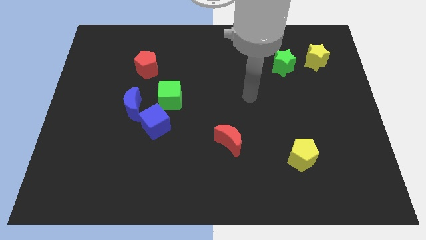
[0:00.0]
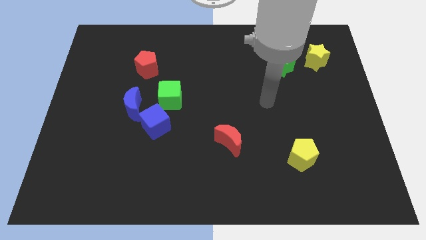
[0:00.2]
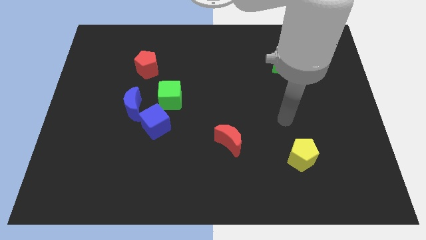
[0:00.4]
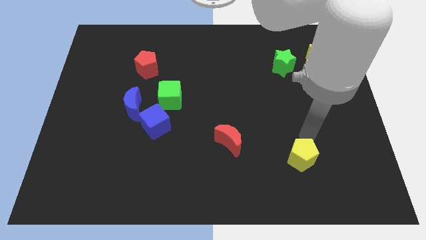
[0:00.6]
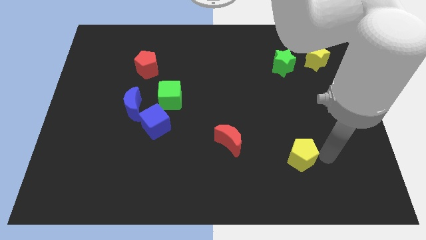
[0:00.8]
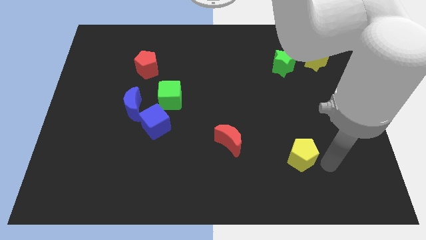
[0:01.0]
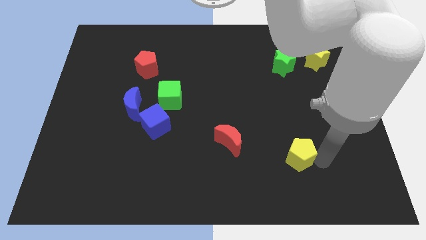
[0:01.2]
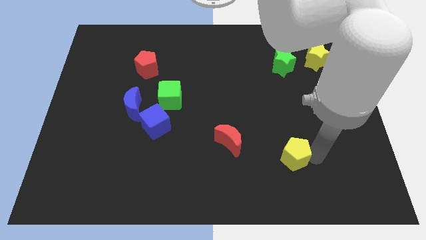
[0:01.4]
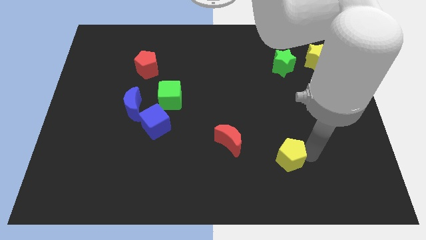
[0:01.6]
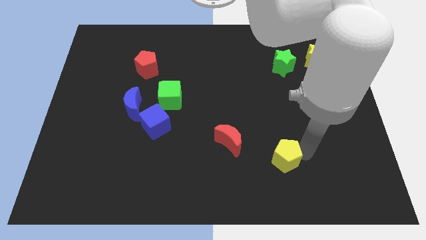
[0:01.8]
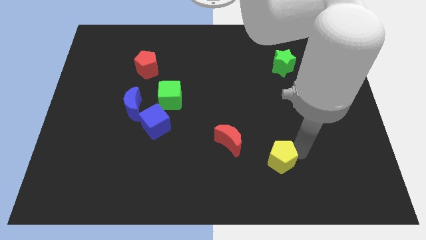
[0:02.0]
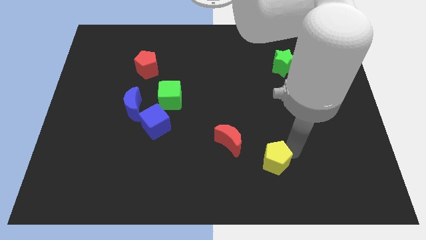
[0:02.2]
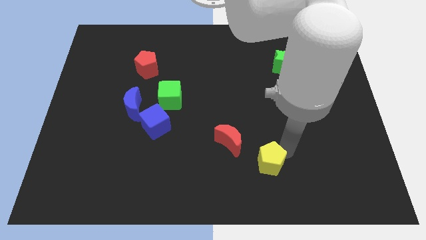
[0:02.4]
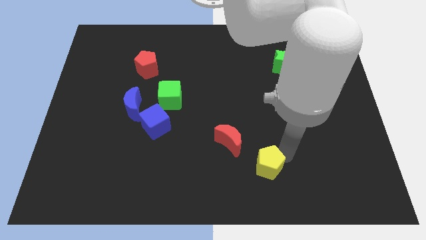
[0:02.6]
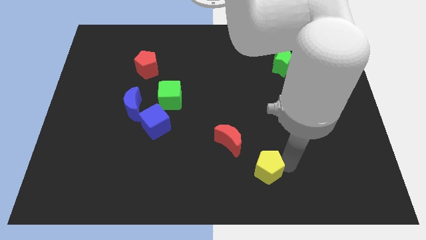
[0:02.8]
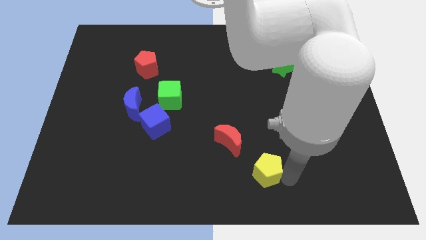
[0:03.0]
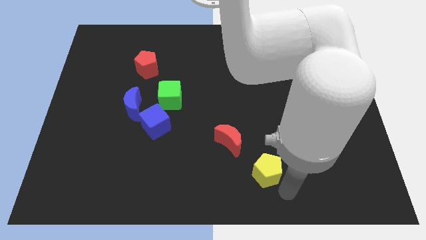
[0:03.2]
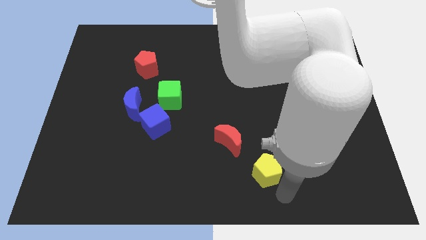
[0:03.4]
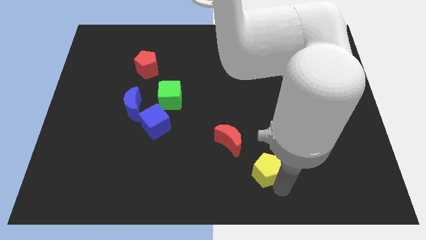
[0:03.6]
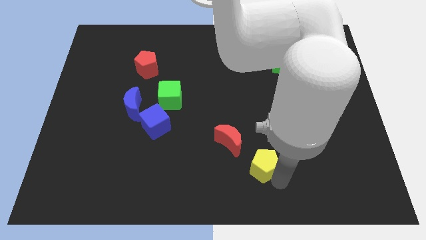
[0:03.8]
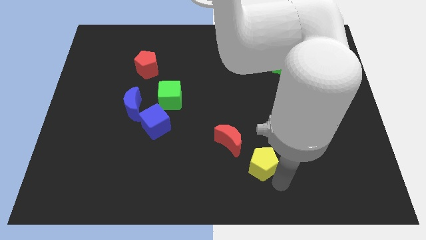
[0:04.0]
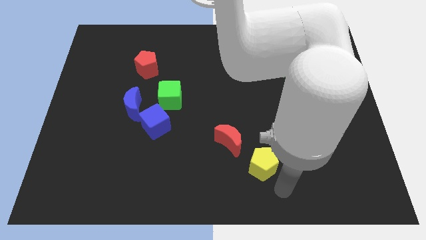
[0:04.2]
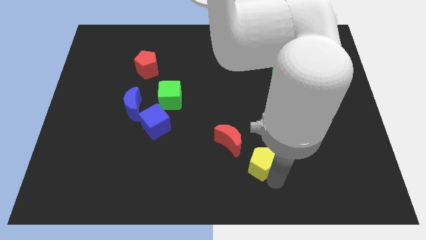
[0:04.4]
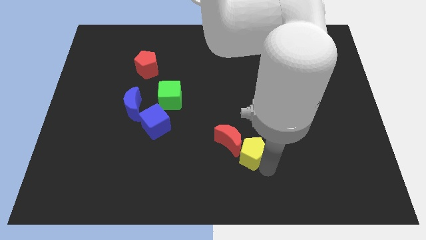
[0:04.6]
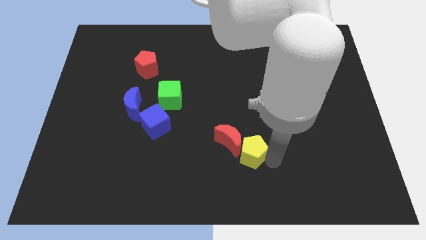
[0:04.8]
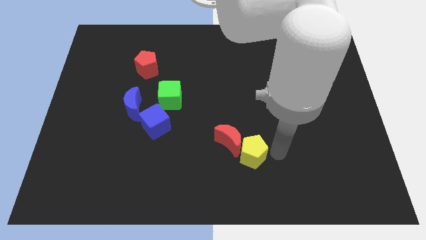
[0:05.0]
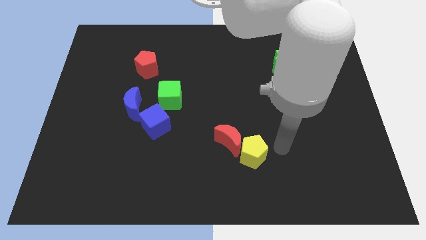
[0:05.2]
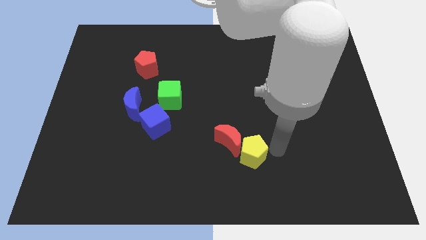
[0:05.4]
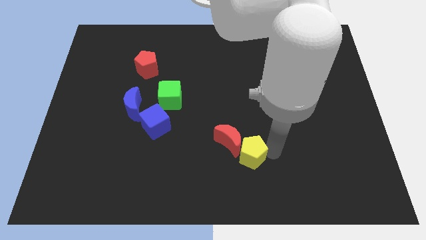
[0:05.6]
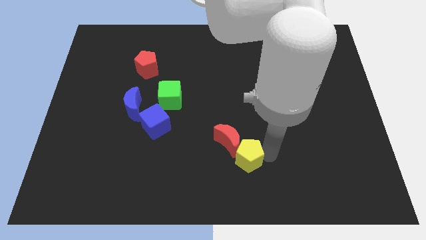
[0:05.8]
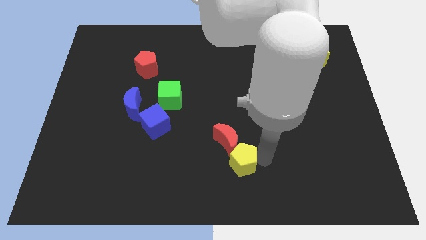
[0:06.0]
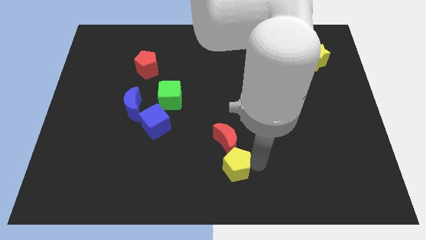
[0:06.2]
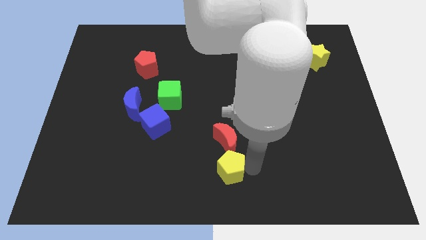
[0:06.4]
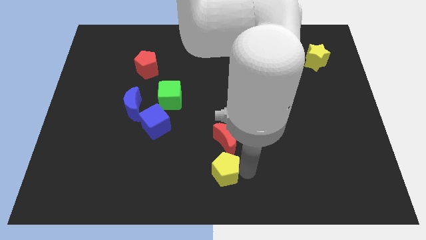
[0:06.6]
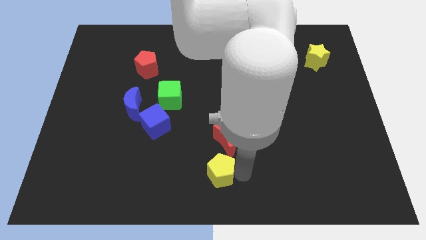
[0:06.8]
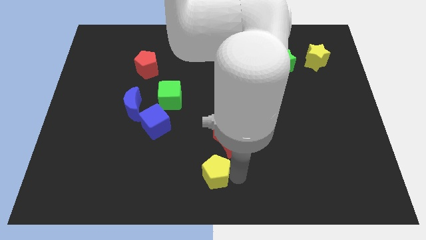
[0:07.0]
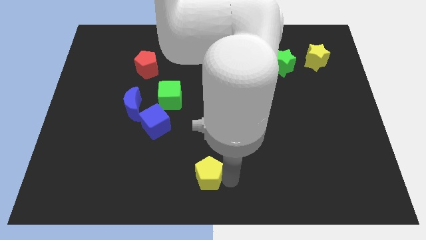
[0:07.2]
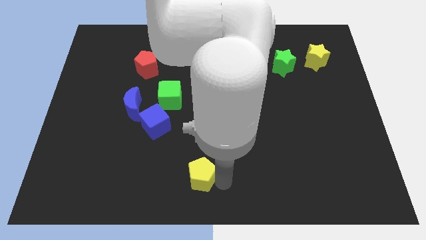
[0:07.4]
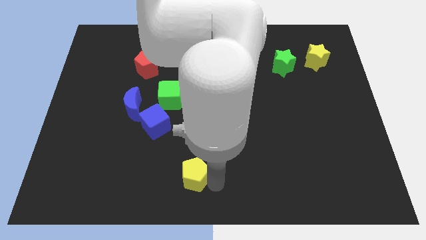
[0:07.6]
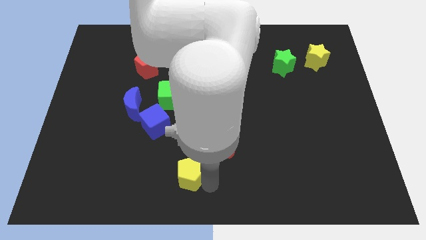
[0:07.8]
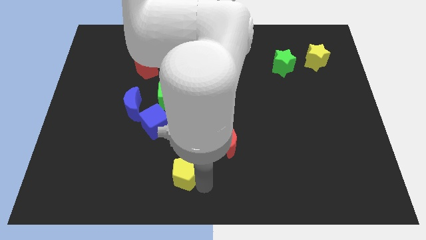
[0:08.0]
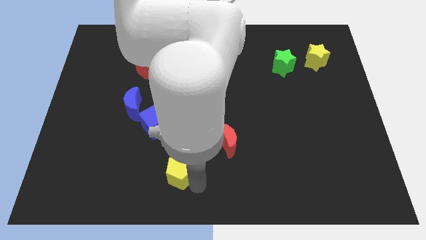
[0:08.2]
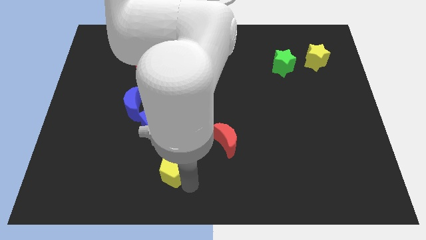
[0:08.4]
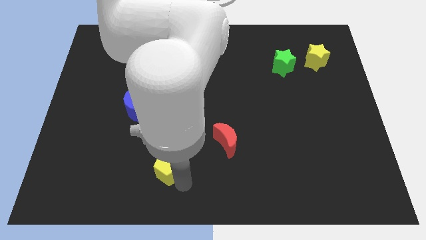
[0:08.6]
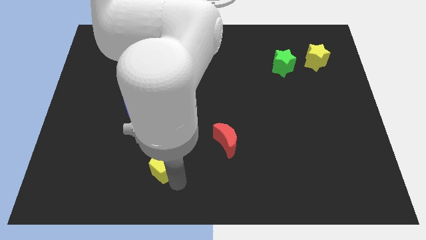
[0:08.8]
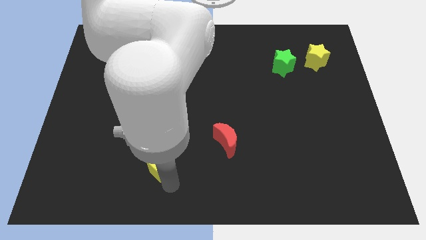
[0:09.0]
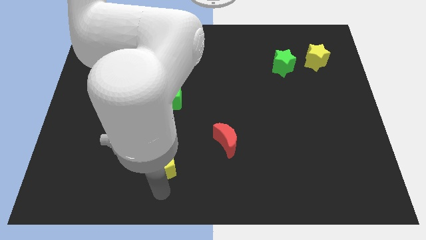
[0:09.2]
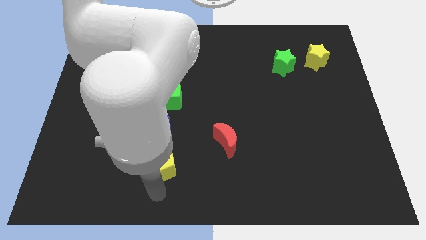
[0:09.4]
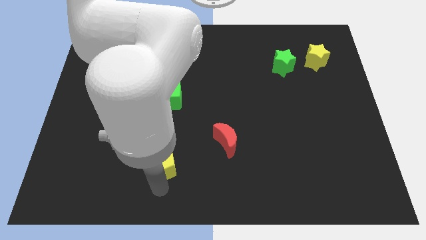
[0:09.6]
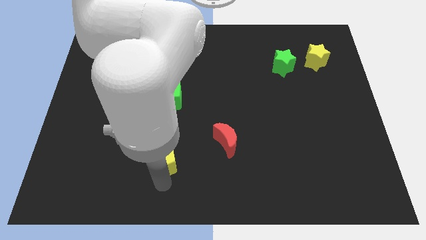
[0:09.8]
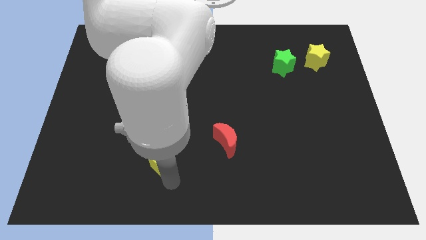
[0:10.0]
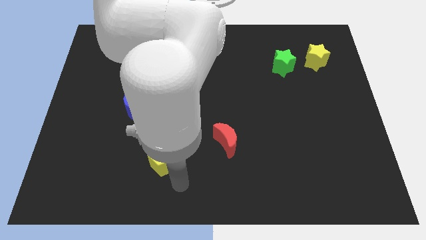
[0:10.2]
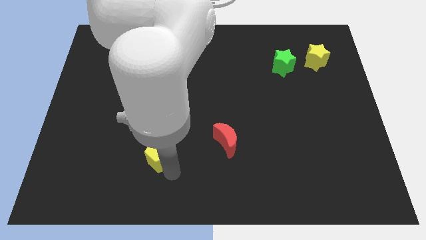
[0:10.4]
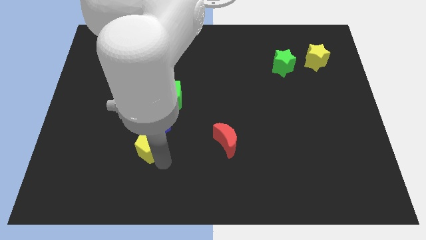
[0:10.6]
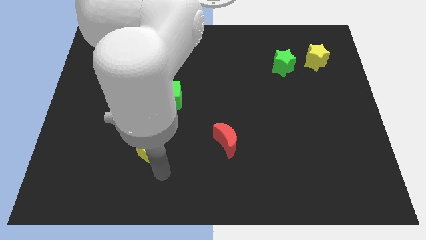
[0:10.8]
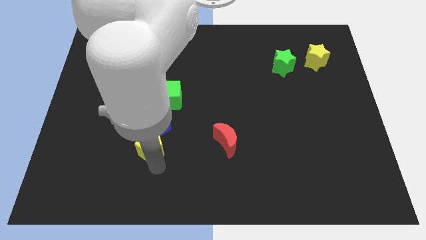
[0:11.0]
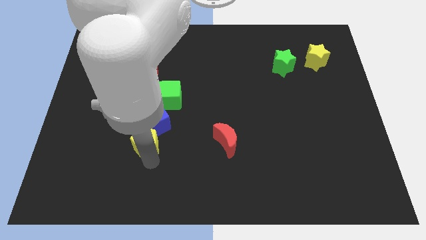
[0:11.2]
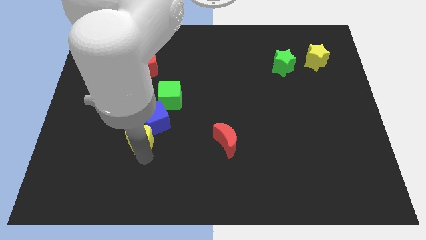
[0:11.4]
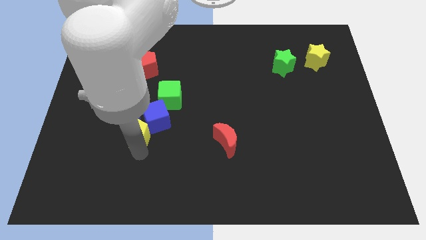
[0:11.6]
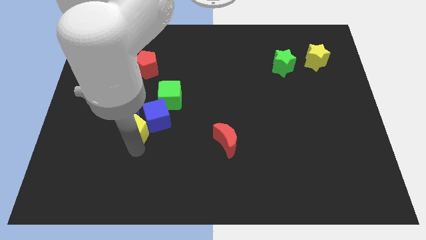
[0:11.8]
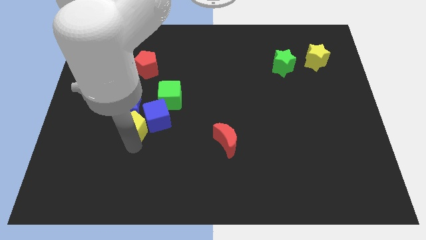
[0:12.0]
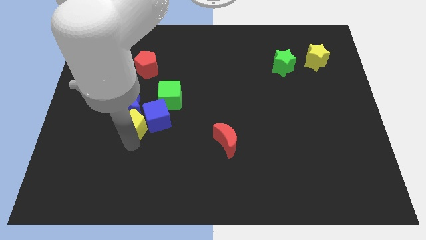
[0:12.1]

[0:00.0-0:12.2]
slide the yellow pentagon next to the blue moon

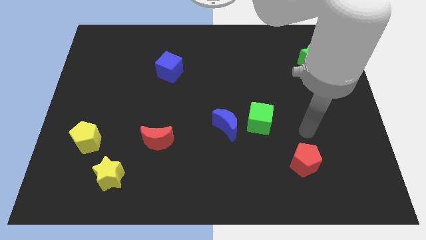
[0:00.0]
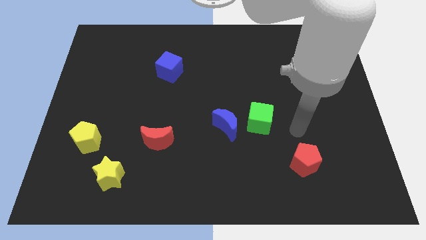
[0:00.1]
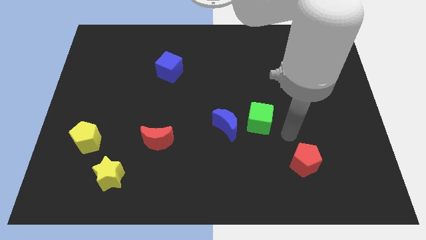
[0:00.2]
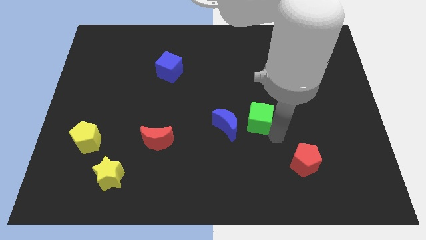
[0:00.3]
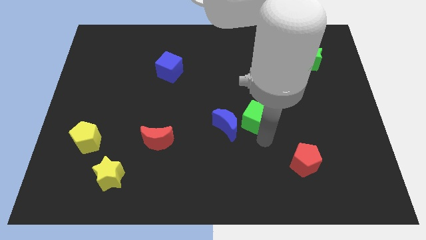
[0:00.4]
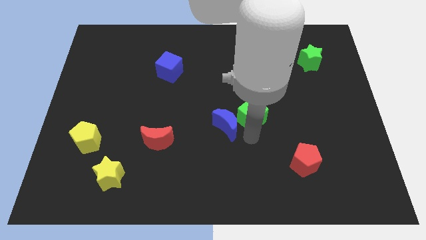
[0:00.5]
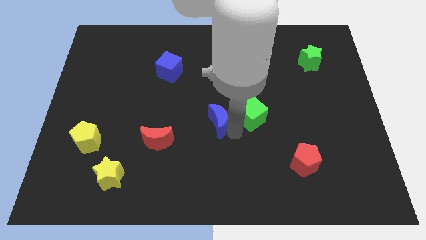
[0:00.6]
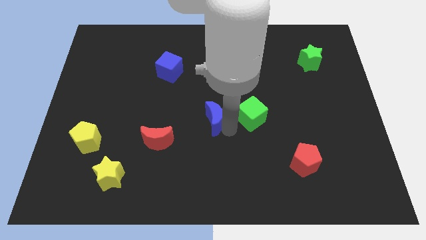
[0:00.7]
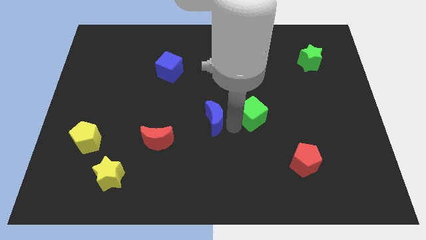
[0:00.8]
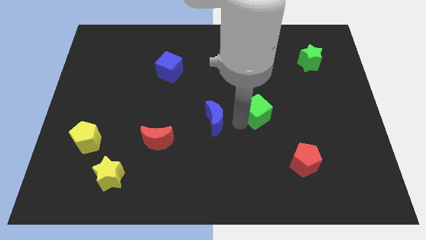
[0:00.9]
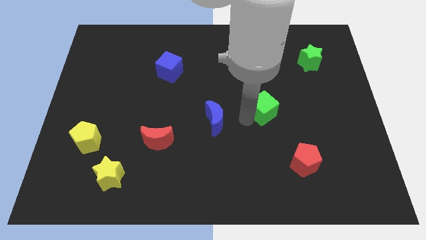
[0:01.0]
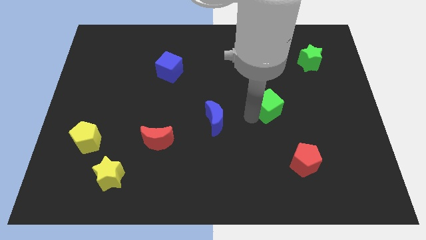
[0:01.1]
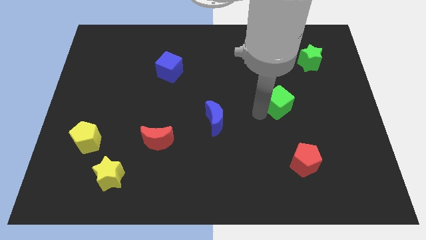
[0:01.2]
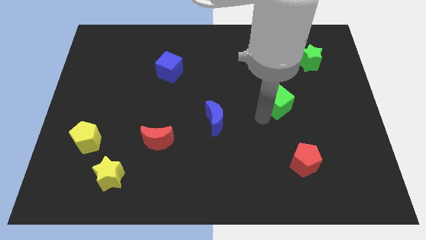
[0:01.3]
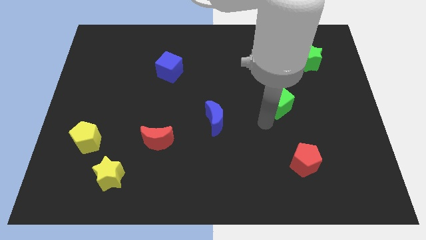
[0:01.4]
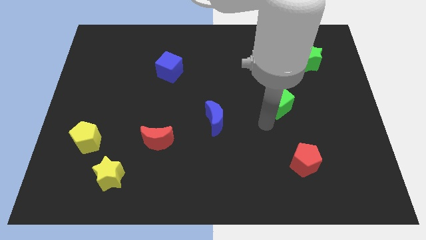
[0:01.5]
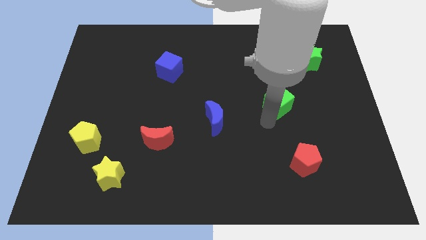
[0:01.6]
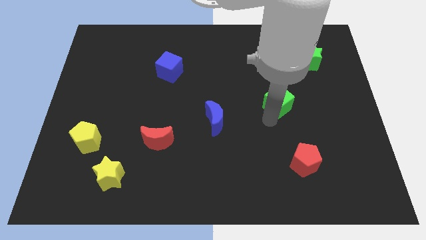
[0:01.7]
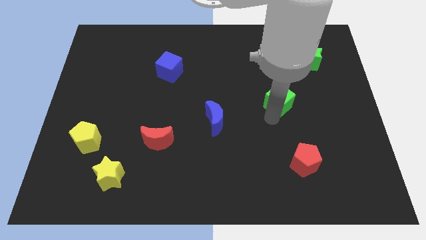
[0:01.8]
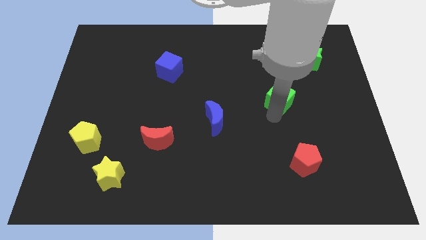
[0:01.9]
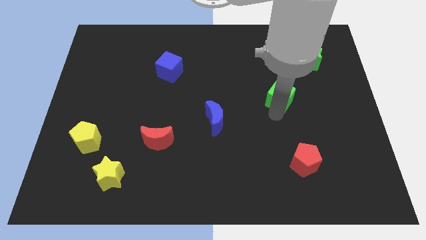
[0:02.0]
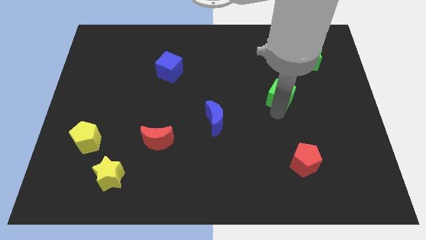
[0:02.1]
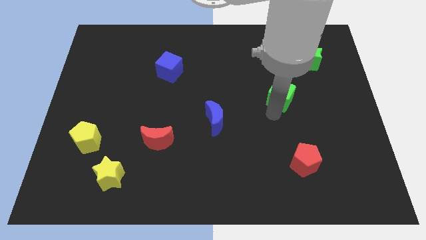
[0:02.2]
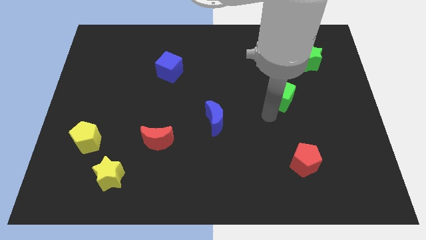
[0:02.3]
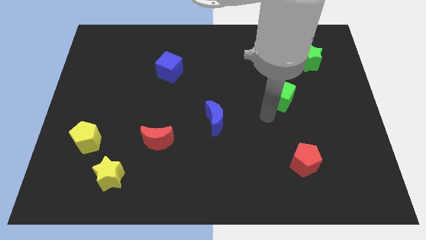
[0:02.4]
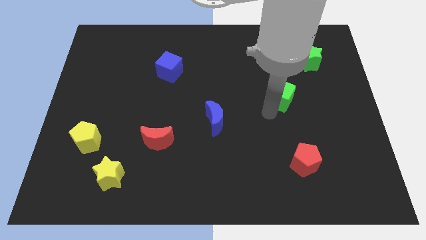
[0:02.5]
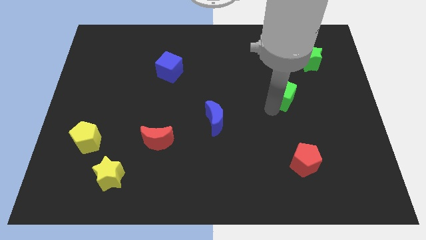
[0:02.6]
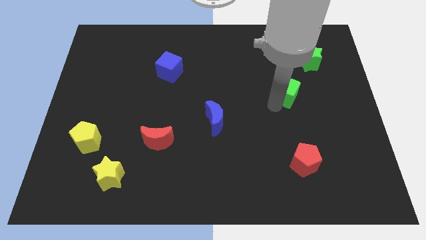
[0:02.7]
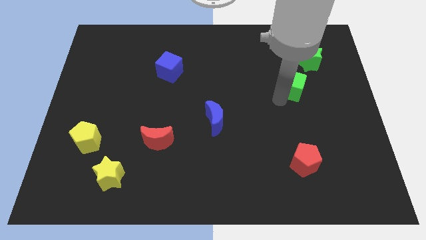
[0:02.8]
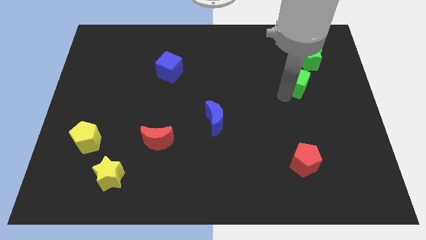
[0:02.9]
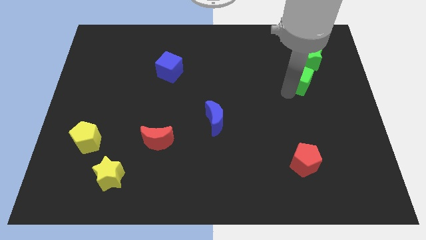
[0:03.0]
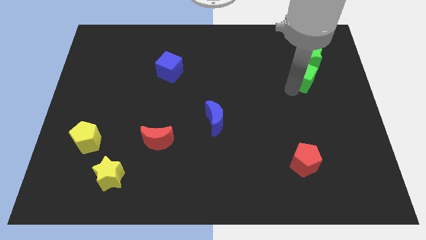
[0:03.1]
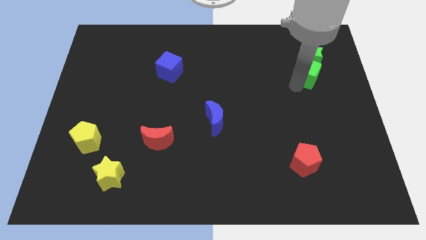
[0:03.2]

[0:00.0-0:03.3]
put the green cube close to the green star
